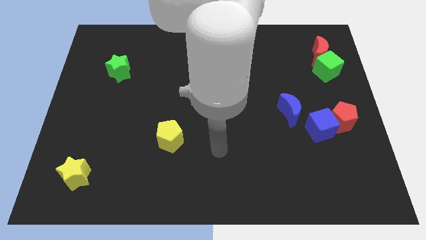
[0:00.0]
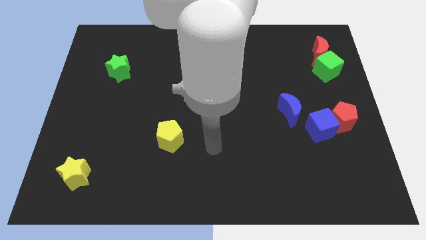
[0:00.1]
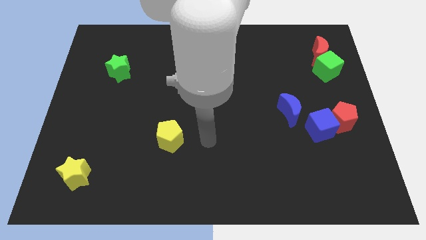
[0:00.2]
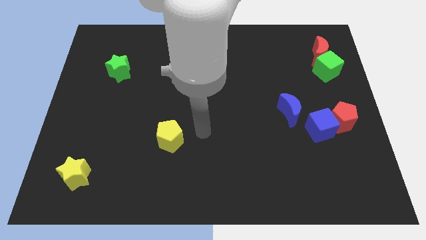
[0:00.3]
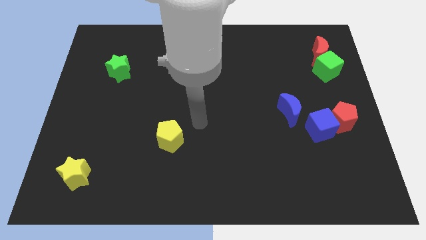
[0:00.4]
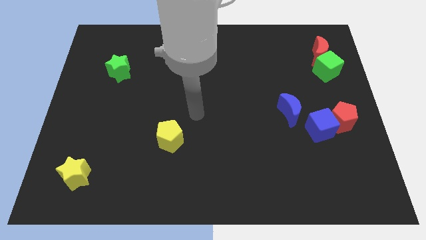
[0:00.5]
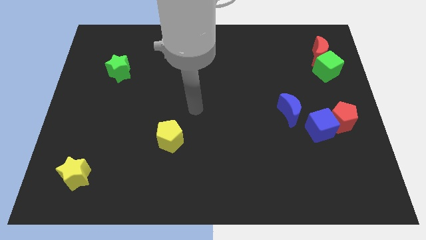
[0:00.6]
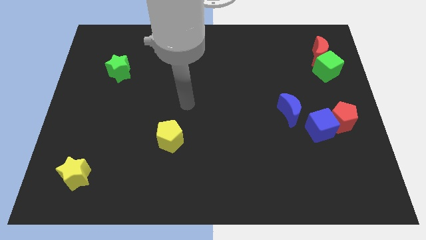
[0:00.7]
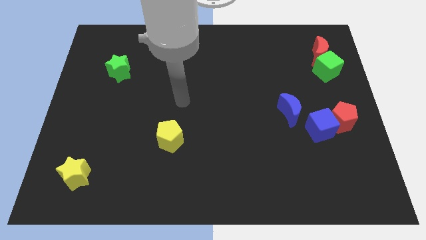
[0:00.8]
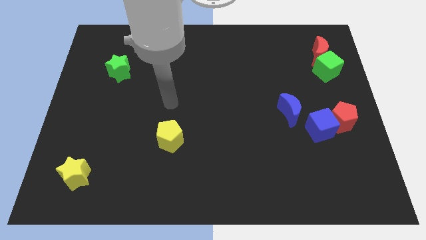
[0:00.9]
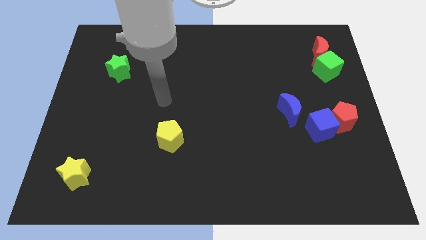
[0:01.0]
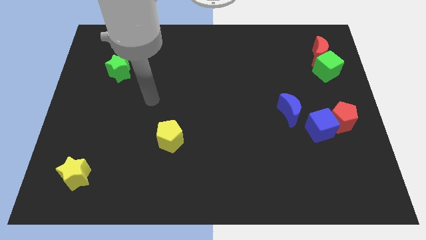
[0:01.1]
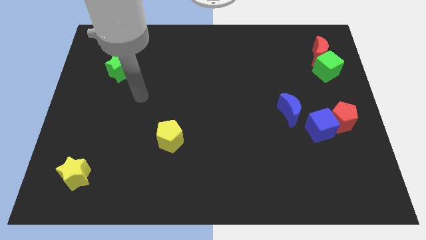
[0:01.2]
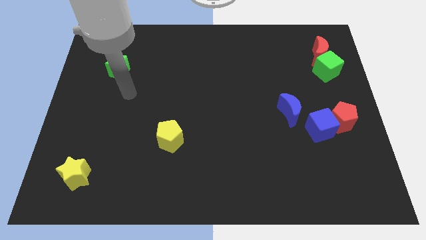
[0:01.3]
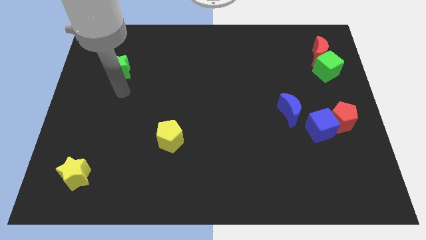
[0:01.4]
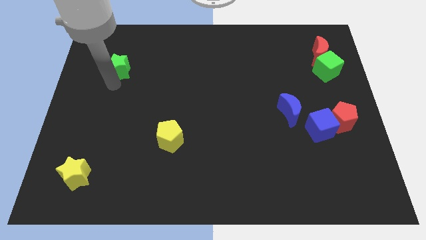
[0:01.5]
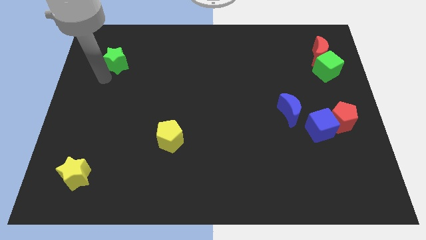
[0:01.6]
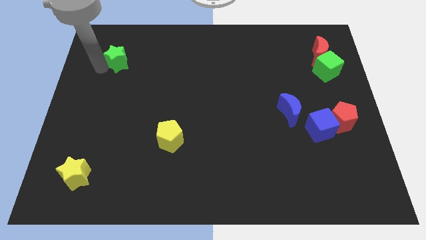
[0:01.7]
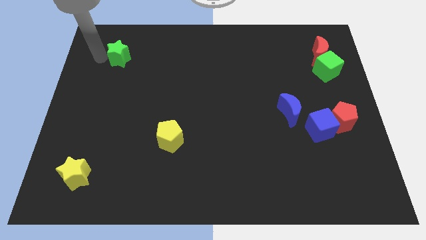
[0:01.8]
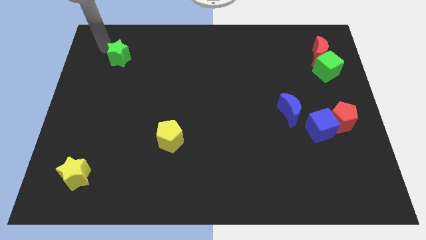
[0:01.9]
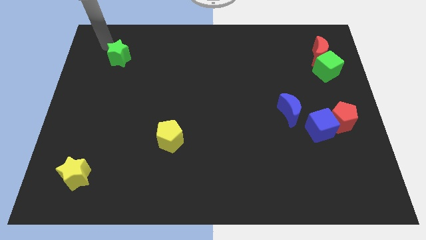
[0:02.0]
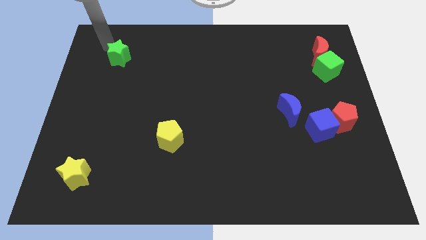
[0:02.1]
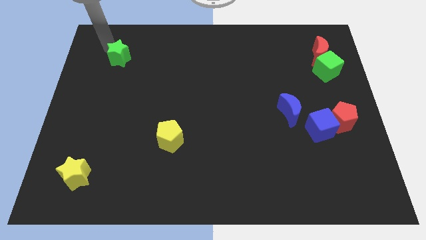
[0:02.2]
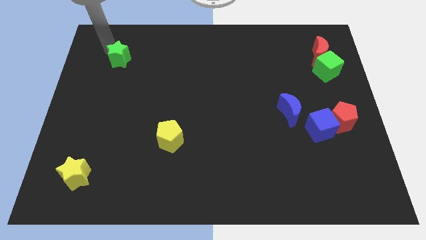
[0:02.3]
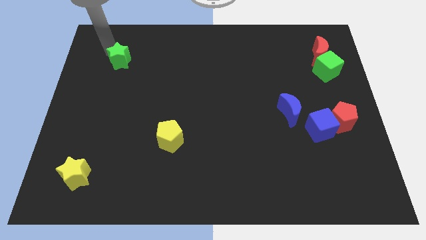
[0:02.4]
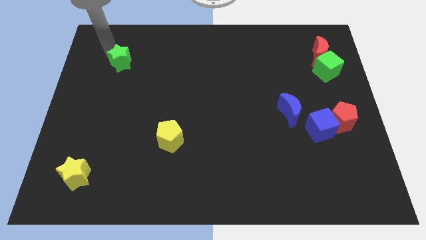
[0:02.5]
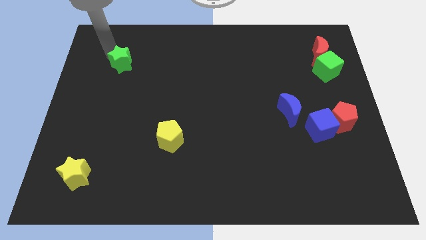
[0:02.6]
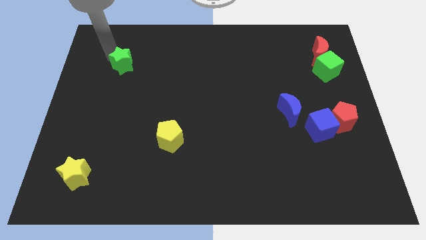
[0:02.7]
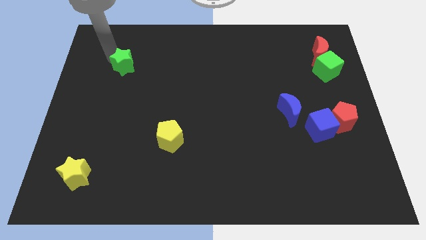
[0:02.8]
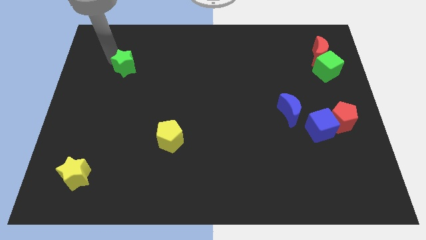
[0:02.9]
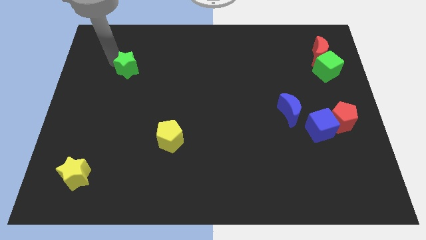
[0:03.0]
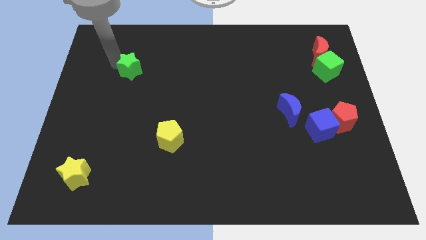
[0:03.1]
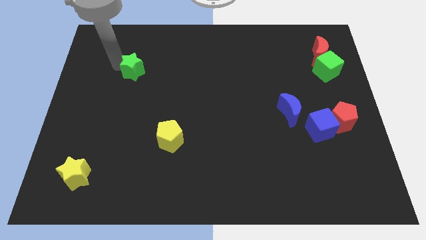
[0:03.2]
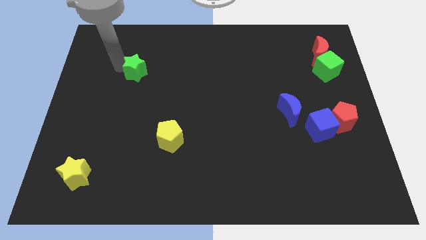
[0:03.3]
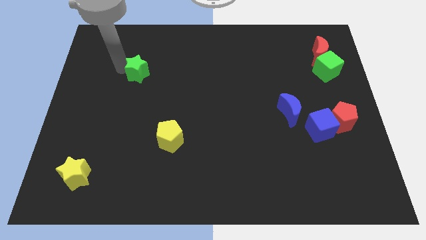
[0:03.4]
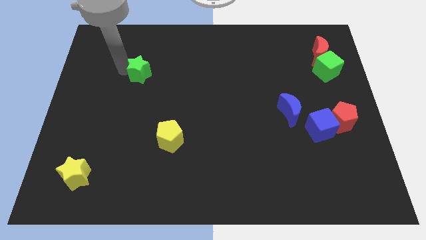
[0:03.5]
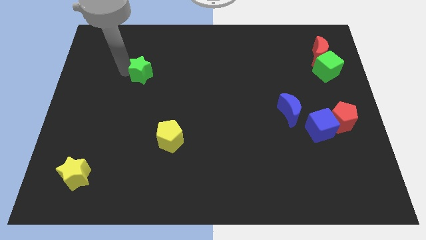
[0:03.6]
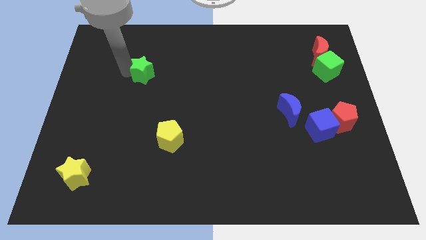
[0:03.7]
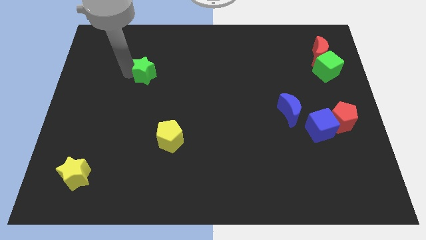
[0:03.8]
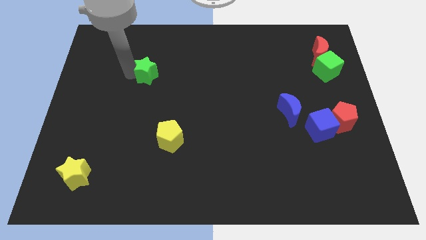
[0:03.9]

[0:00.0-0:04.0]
slide the green star right slightly

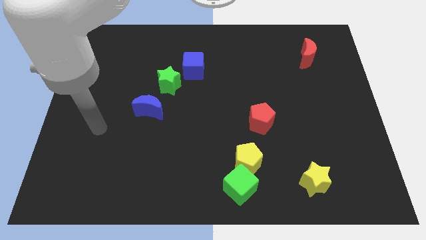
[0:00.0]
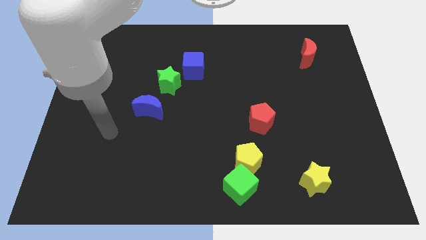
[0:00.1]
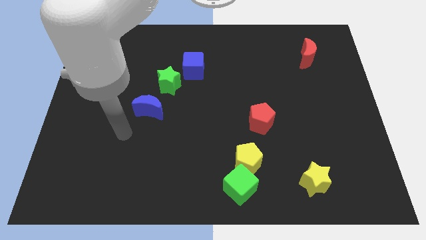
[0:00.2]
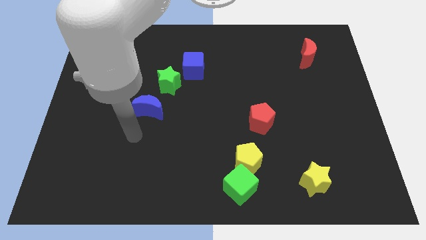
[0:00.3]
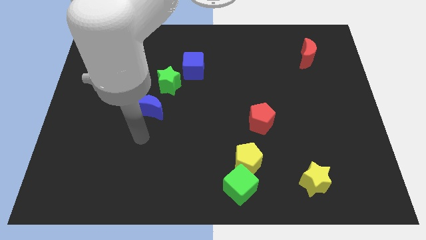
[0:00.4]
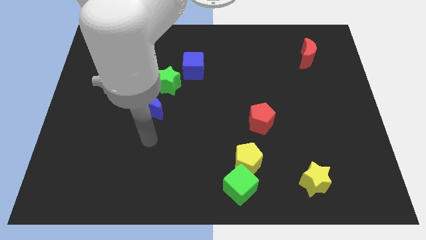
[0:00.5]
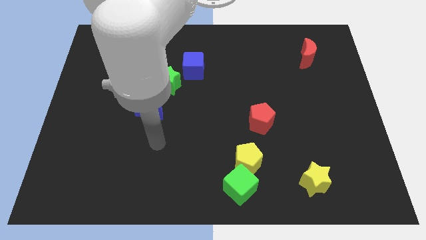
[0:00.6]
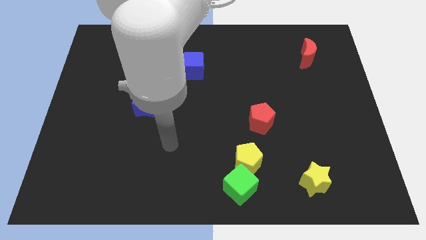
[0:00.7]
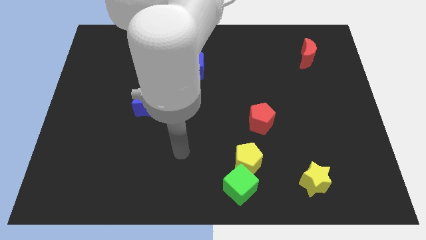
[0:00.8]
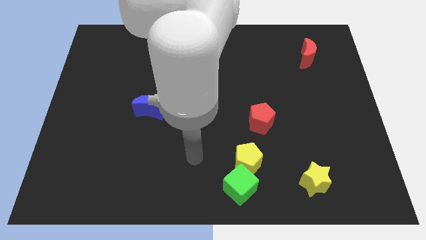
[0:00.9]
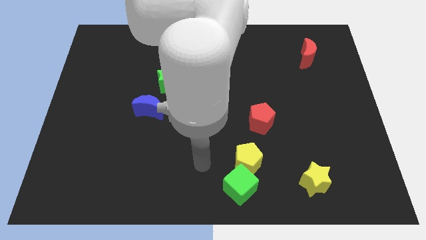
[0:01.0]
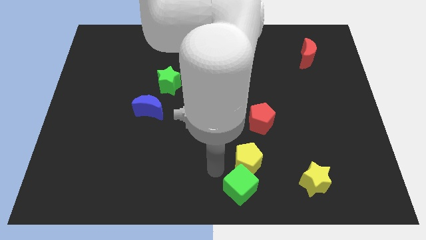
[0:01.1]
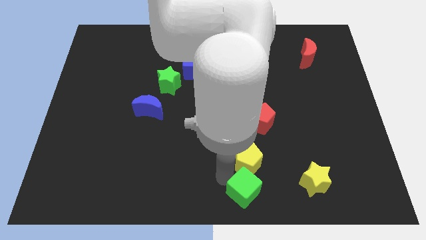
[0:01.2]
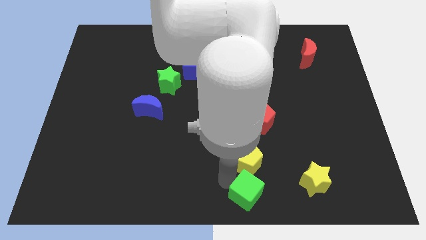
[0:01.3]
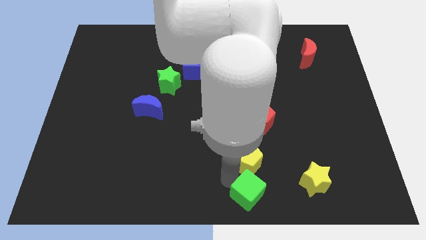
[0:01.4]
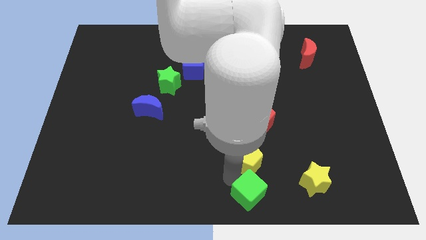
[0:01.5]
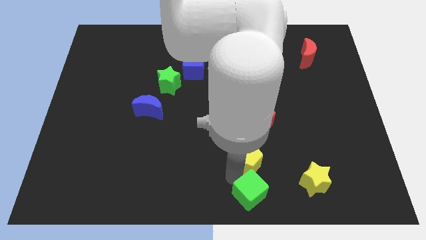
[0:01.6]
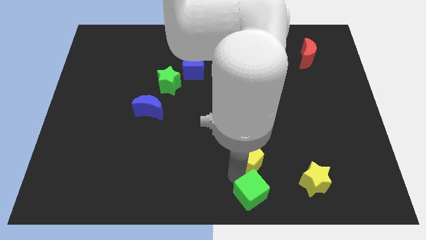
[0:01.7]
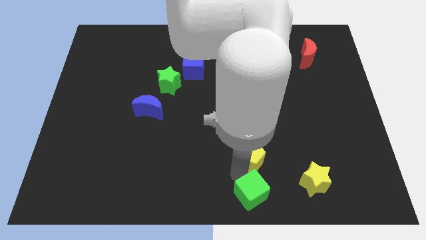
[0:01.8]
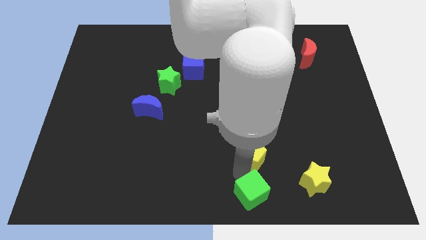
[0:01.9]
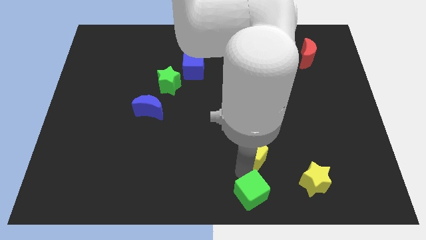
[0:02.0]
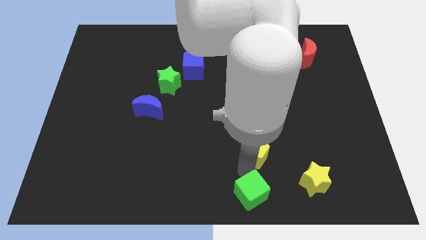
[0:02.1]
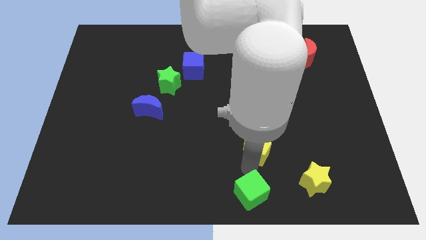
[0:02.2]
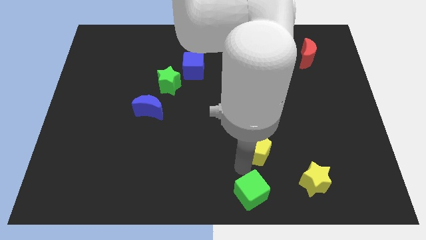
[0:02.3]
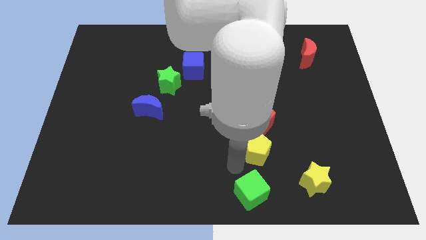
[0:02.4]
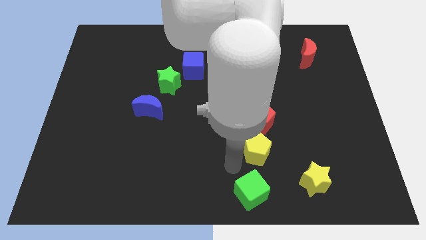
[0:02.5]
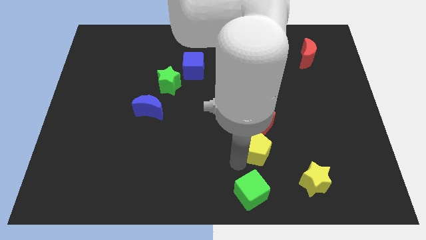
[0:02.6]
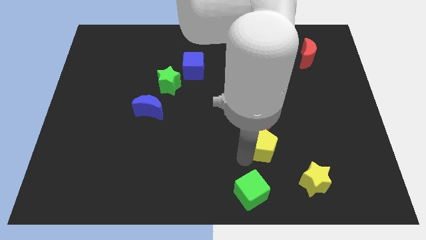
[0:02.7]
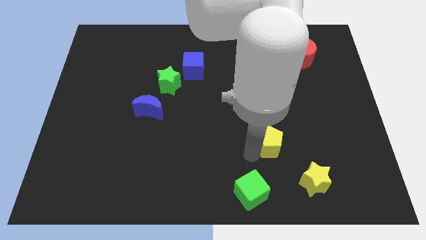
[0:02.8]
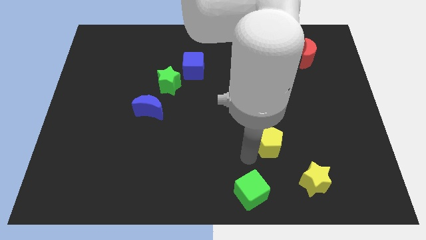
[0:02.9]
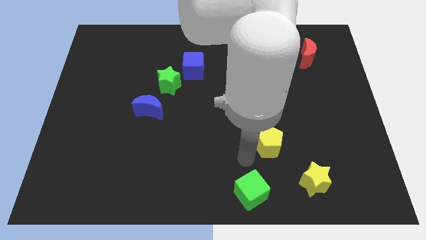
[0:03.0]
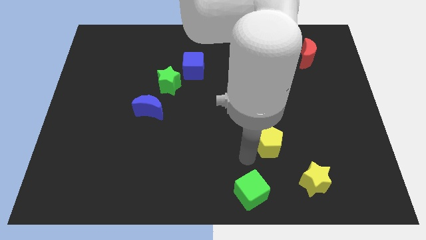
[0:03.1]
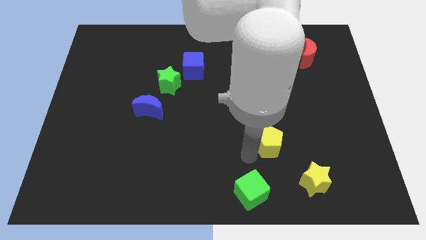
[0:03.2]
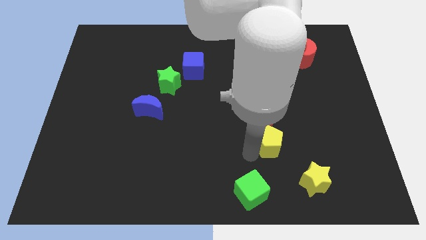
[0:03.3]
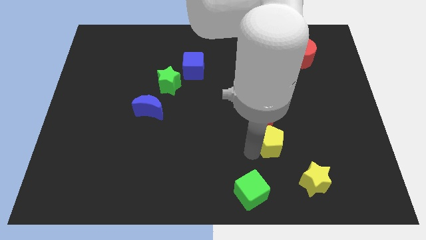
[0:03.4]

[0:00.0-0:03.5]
move the yellow pentagon somewhat upwards and to the right

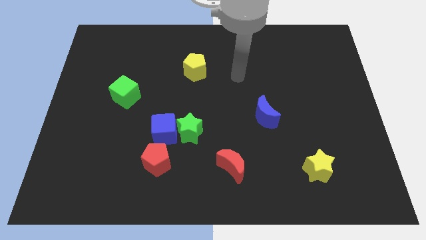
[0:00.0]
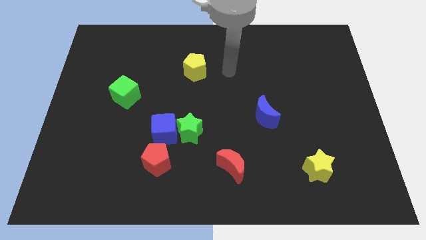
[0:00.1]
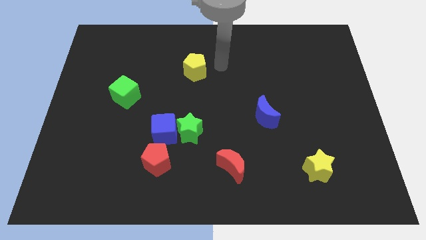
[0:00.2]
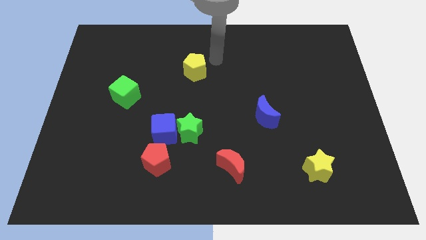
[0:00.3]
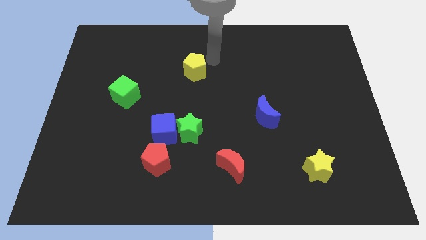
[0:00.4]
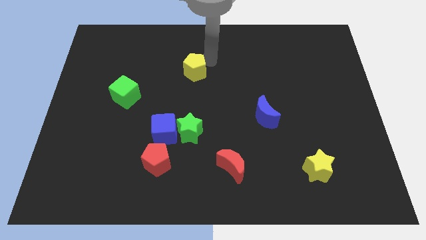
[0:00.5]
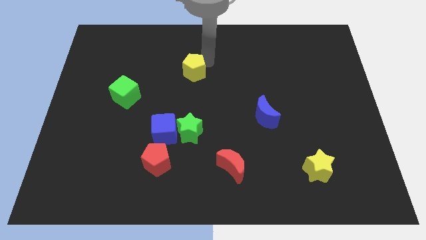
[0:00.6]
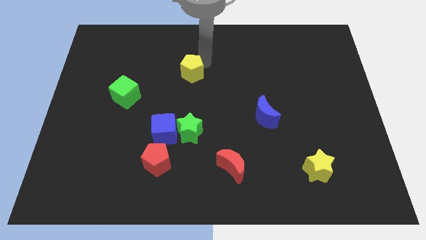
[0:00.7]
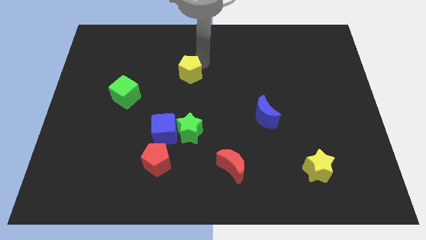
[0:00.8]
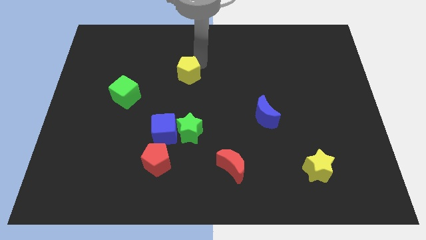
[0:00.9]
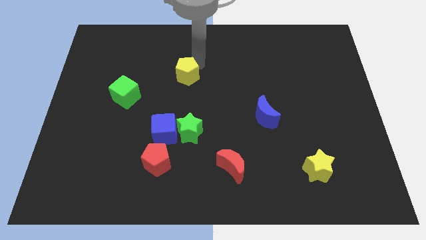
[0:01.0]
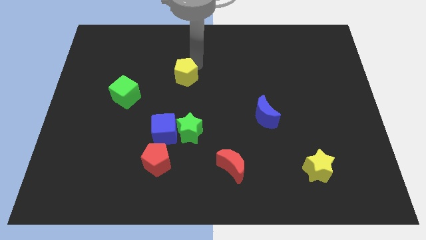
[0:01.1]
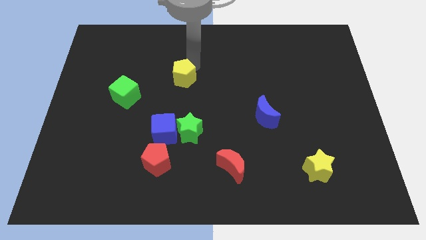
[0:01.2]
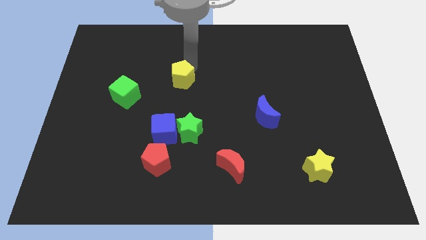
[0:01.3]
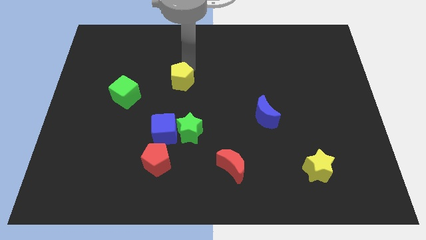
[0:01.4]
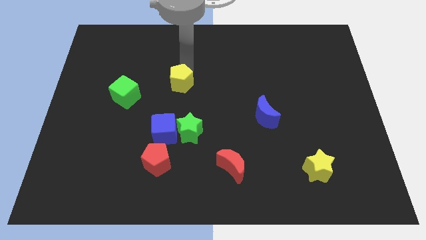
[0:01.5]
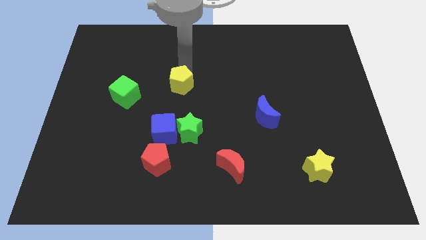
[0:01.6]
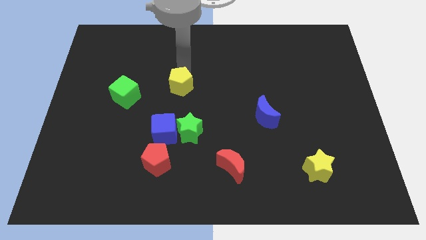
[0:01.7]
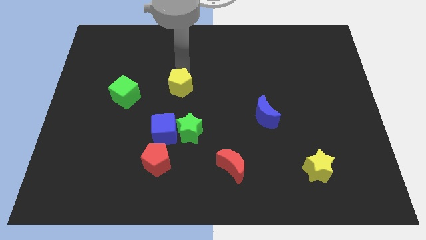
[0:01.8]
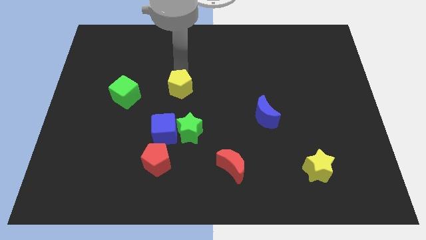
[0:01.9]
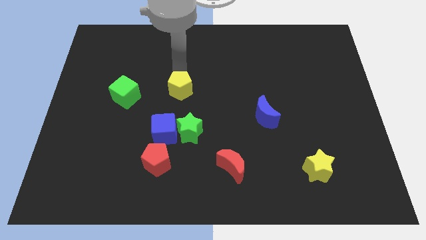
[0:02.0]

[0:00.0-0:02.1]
slide the yellow pentagon slightly down and then left
